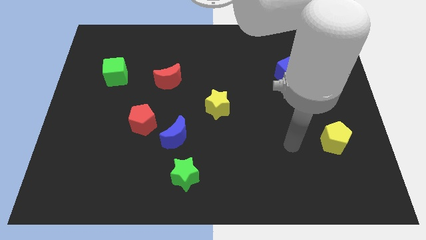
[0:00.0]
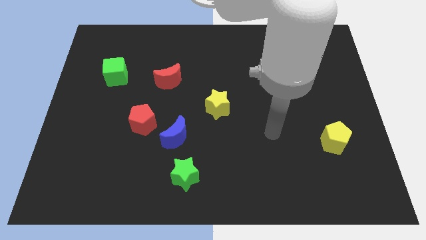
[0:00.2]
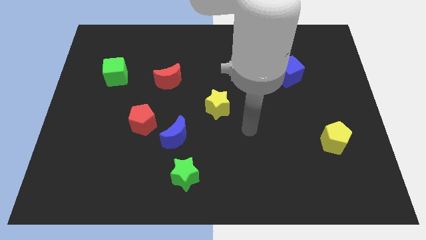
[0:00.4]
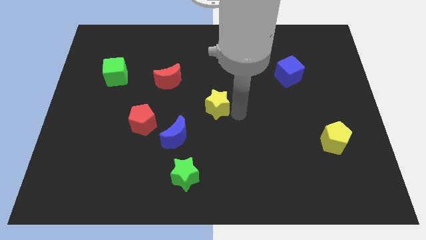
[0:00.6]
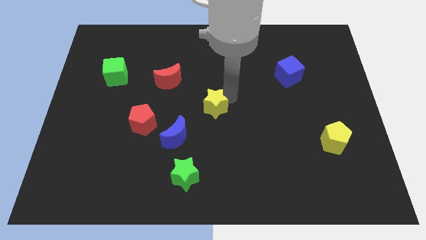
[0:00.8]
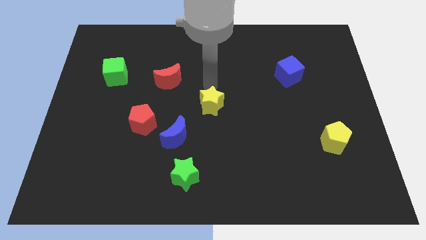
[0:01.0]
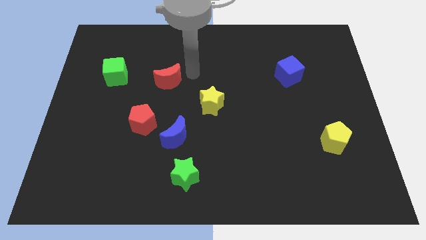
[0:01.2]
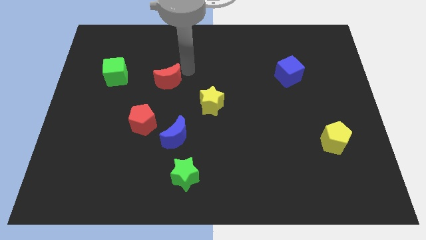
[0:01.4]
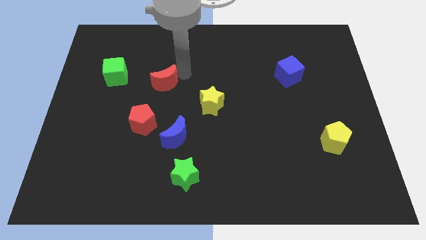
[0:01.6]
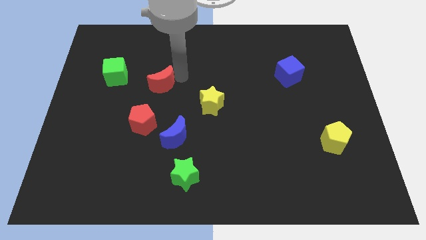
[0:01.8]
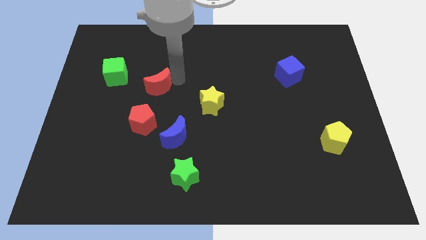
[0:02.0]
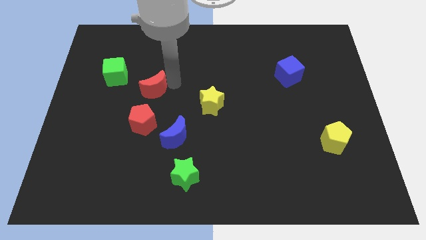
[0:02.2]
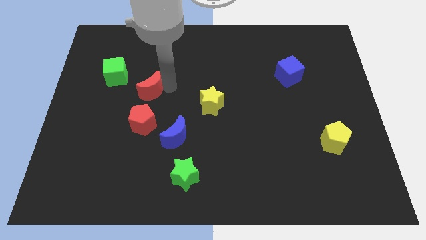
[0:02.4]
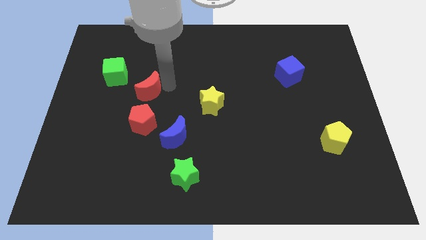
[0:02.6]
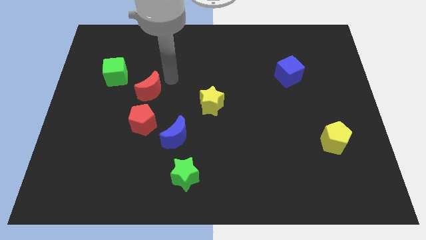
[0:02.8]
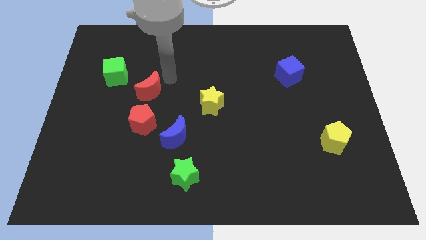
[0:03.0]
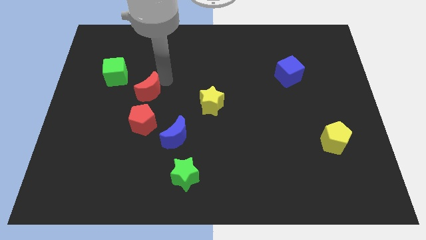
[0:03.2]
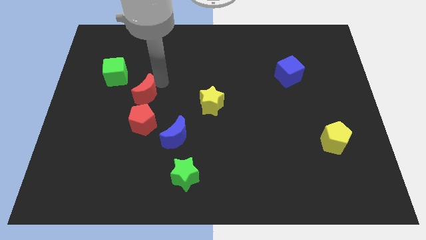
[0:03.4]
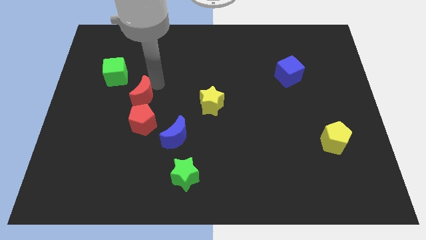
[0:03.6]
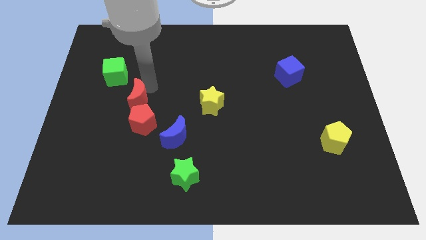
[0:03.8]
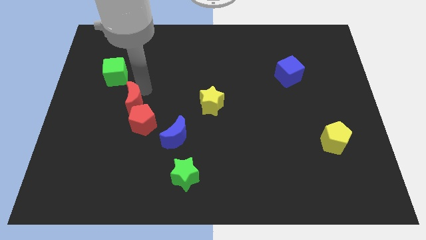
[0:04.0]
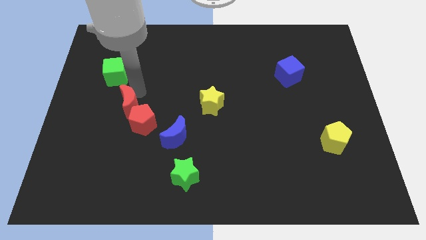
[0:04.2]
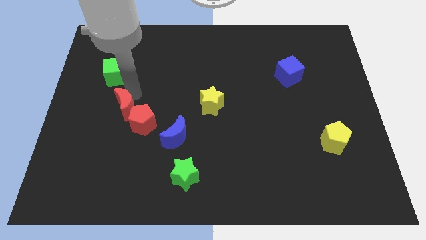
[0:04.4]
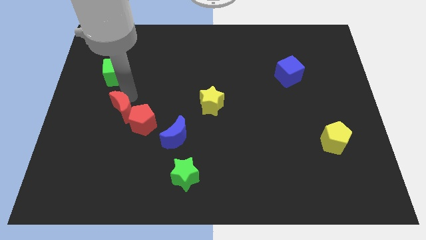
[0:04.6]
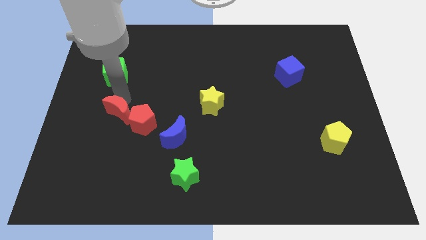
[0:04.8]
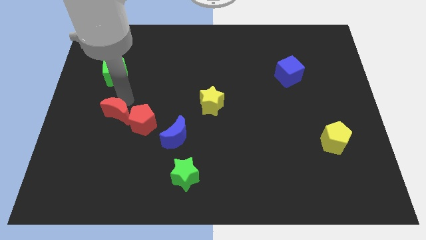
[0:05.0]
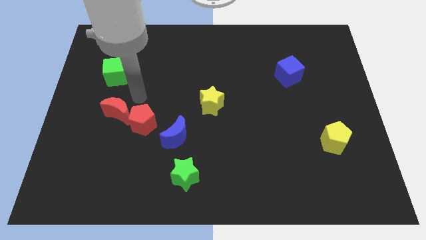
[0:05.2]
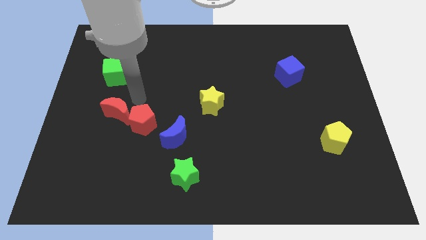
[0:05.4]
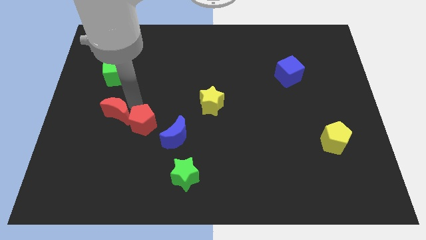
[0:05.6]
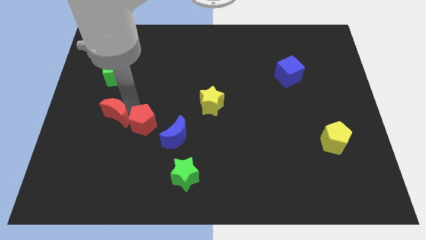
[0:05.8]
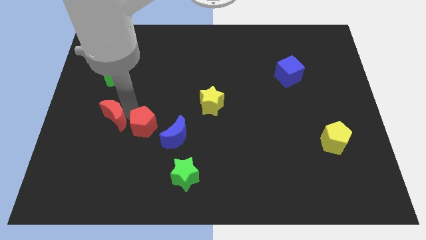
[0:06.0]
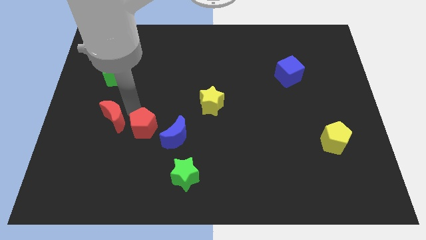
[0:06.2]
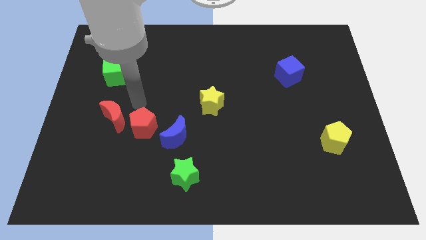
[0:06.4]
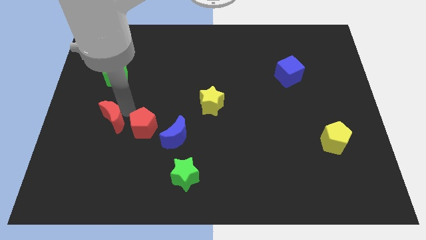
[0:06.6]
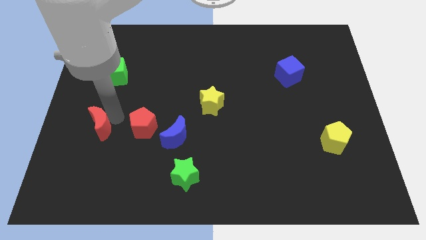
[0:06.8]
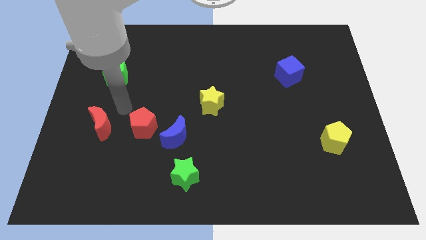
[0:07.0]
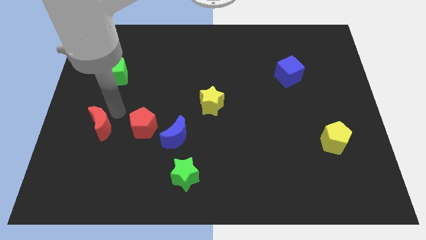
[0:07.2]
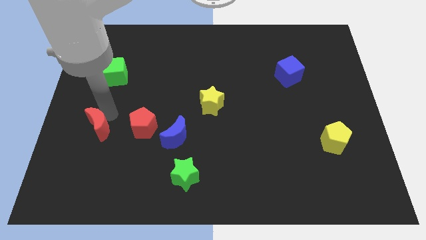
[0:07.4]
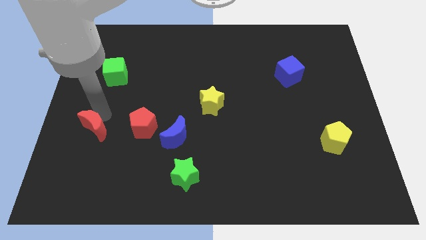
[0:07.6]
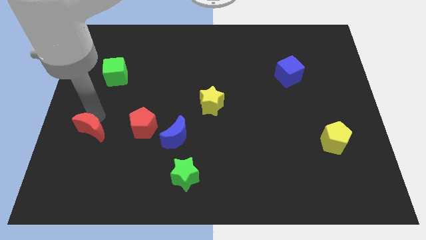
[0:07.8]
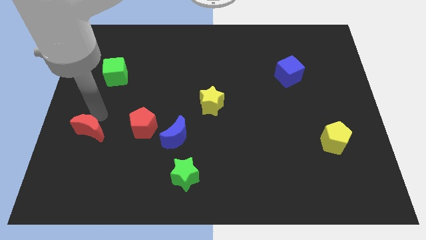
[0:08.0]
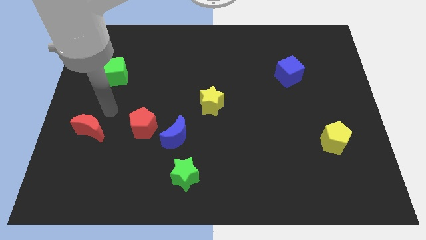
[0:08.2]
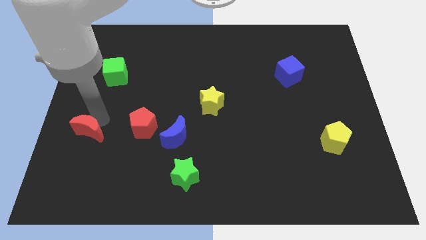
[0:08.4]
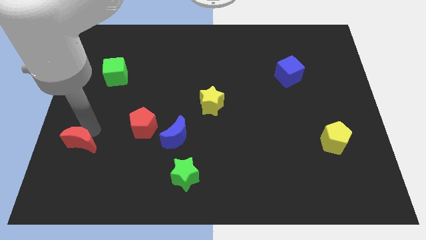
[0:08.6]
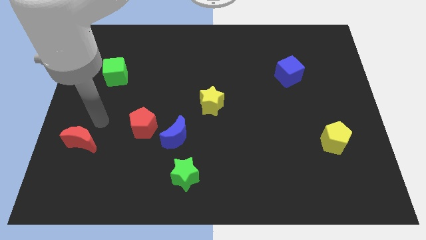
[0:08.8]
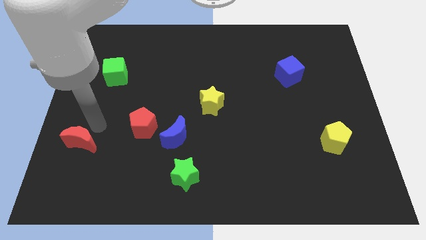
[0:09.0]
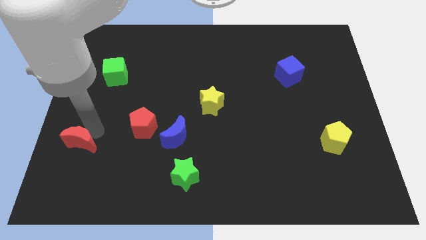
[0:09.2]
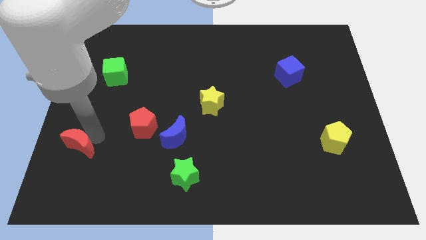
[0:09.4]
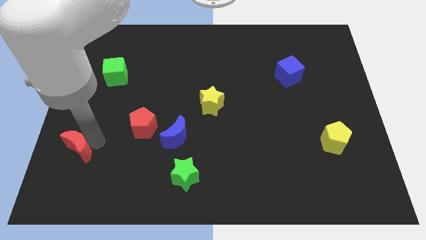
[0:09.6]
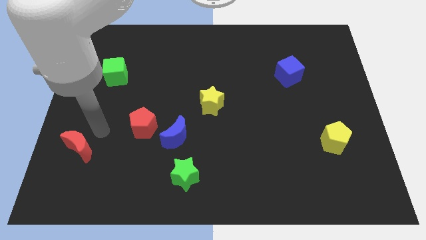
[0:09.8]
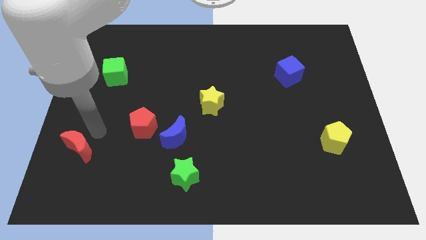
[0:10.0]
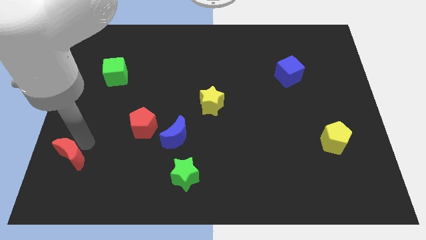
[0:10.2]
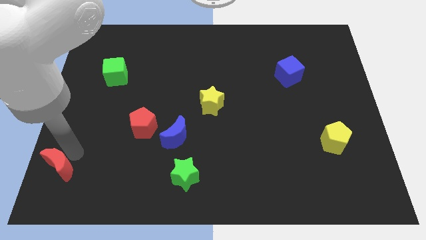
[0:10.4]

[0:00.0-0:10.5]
move the red moon to the bottom left

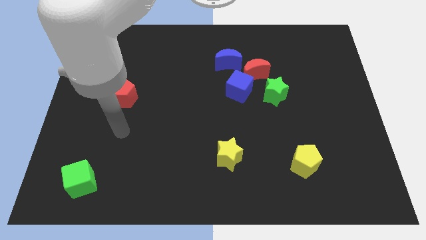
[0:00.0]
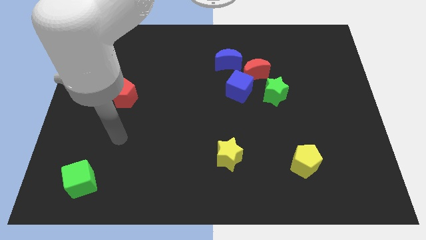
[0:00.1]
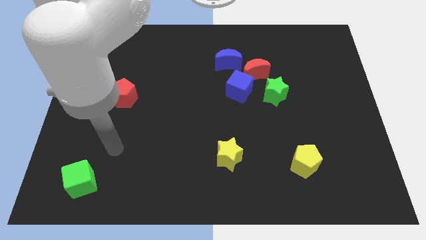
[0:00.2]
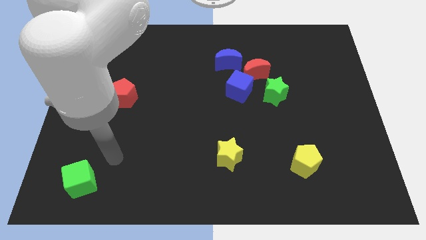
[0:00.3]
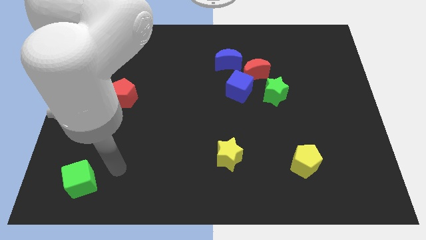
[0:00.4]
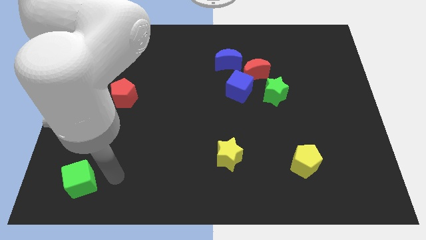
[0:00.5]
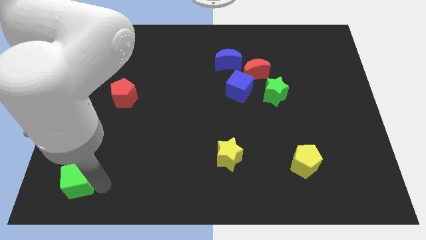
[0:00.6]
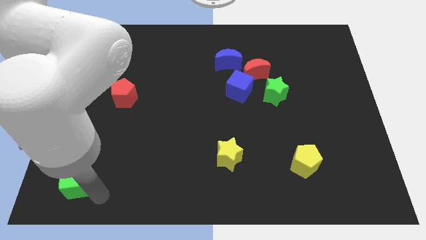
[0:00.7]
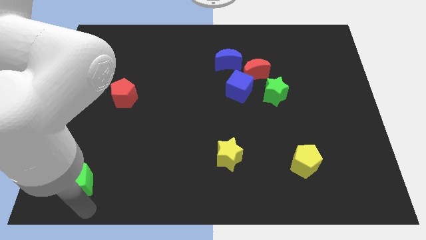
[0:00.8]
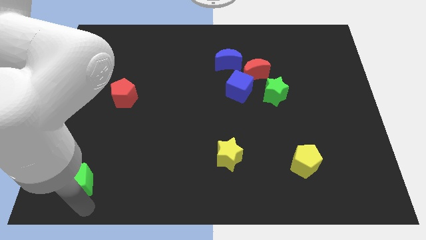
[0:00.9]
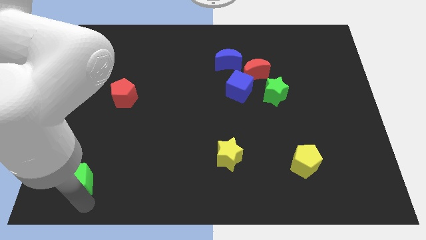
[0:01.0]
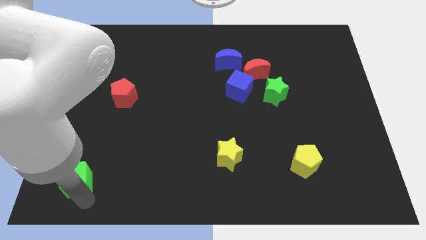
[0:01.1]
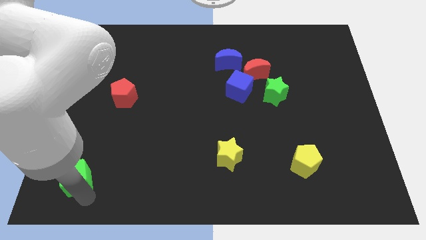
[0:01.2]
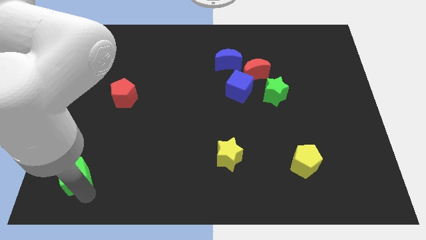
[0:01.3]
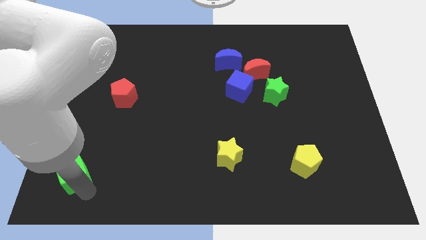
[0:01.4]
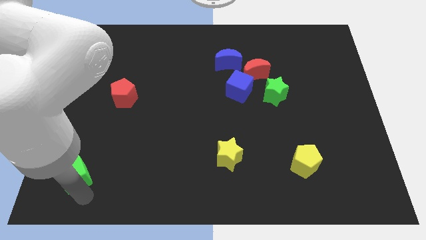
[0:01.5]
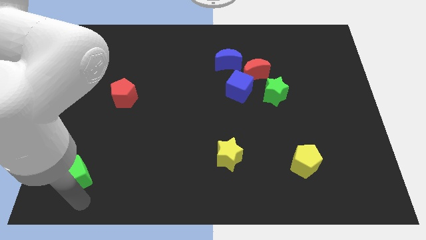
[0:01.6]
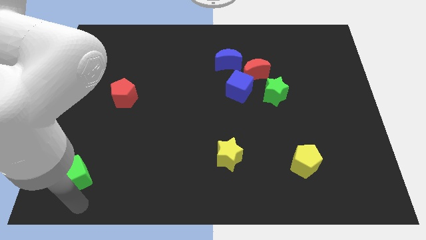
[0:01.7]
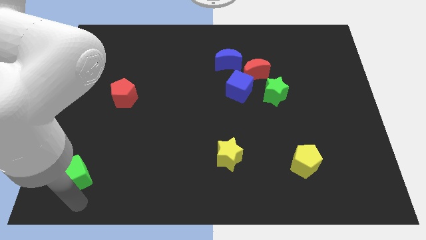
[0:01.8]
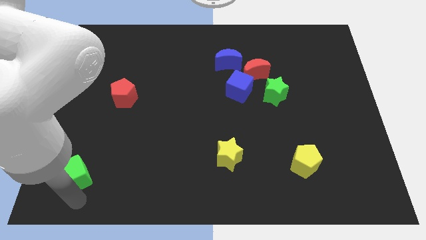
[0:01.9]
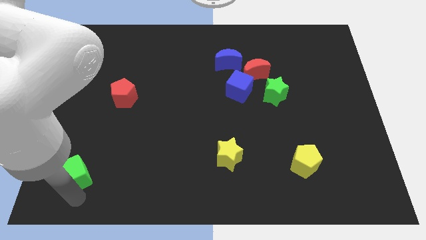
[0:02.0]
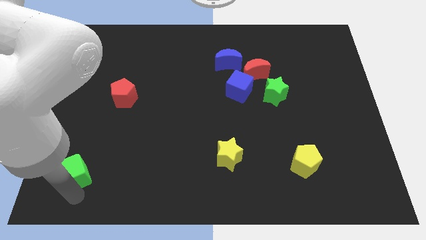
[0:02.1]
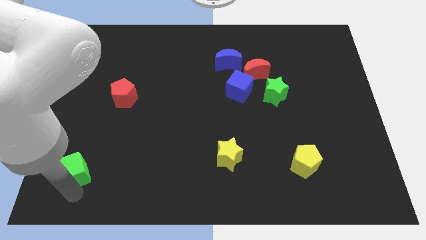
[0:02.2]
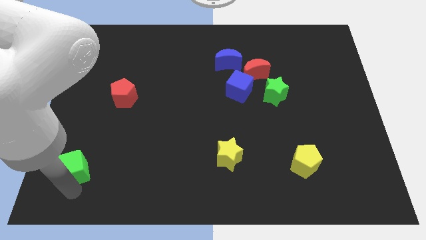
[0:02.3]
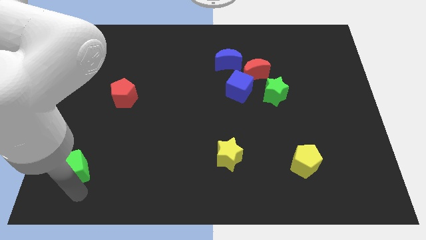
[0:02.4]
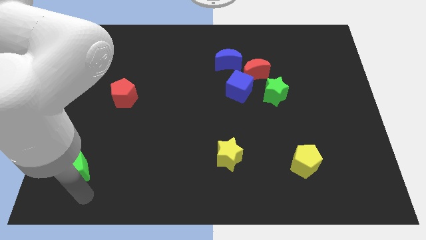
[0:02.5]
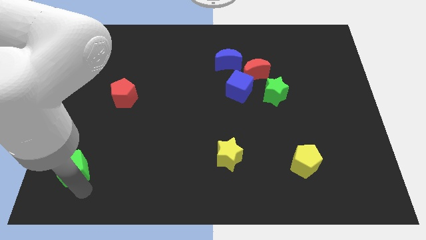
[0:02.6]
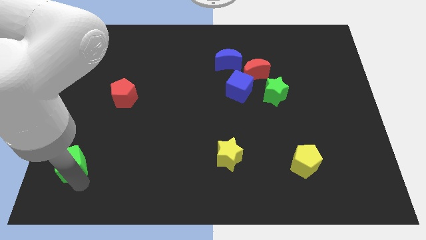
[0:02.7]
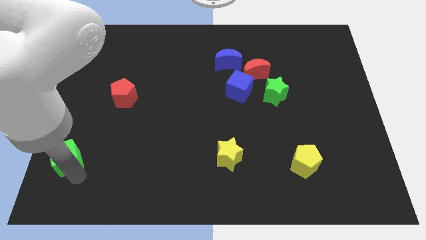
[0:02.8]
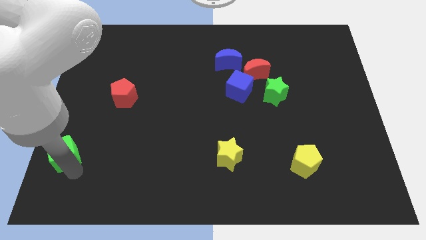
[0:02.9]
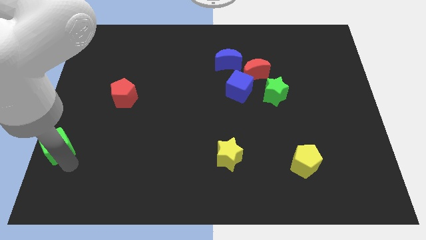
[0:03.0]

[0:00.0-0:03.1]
put the green cube to the left side
